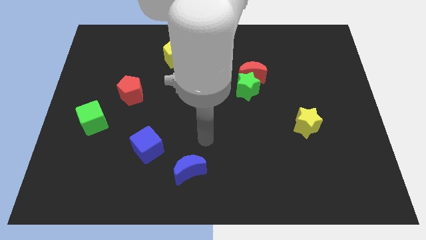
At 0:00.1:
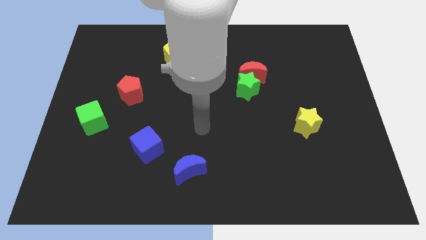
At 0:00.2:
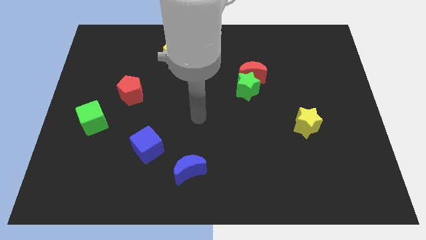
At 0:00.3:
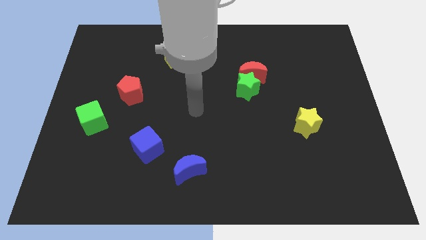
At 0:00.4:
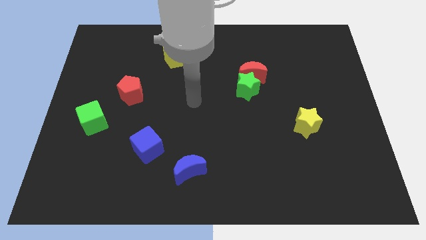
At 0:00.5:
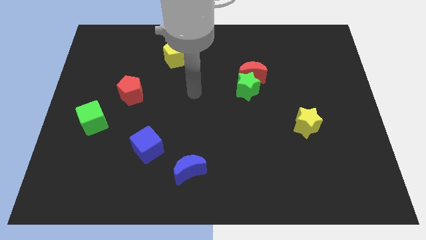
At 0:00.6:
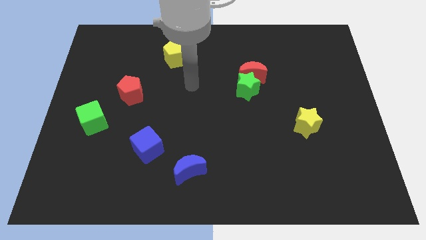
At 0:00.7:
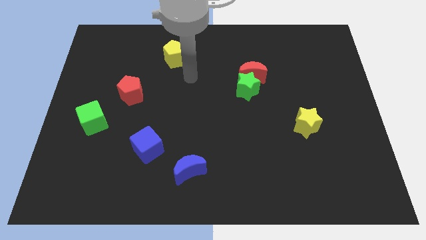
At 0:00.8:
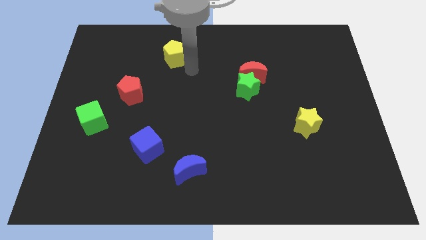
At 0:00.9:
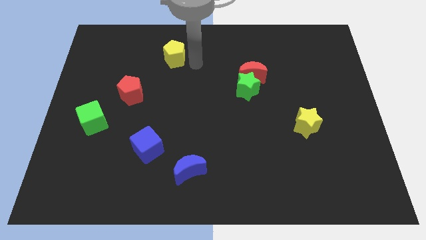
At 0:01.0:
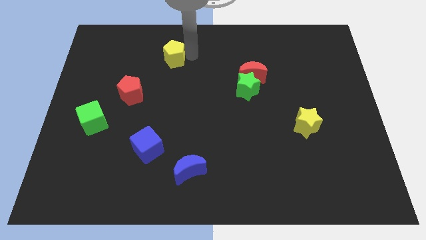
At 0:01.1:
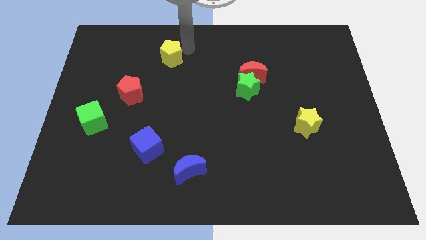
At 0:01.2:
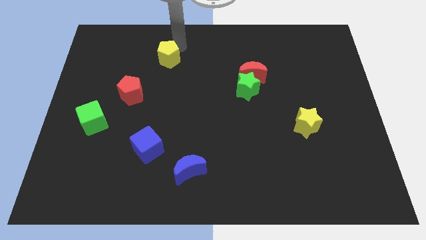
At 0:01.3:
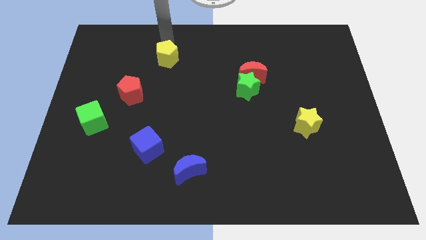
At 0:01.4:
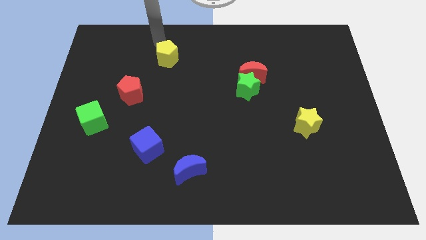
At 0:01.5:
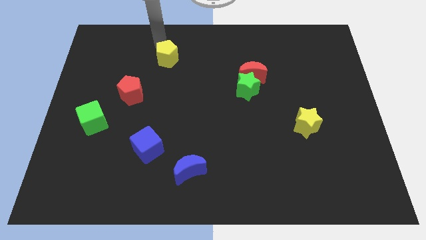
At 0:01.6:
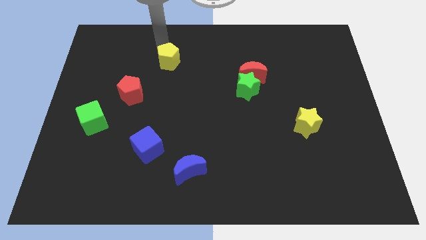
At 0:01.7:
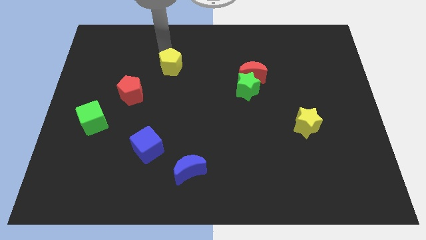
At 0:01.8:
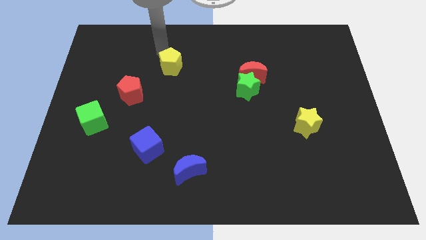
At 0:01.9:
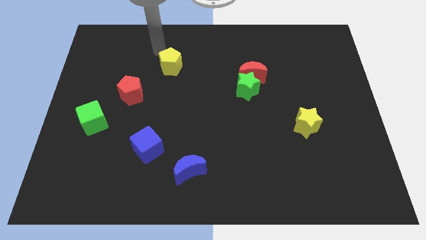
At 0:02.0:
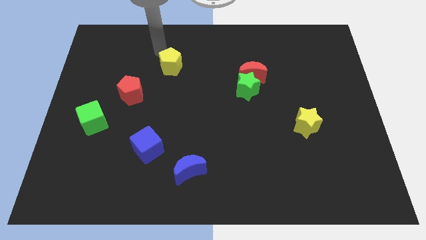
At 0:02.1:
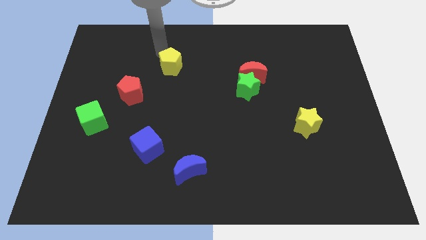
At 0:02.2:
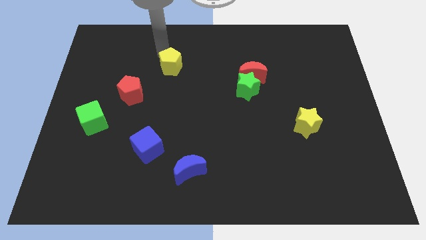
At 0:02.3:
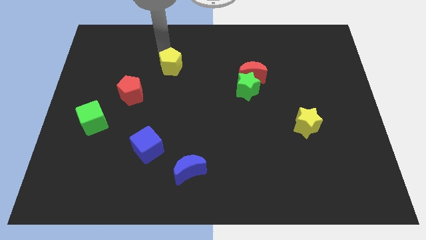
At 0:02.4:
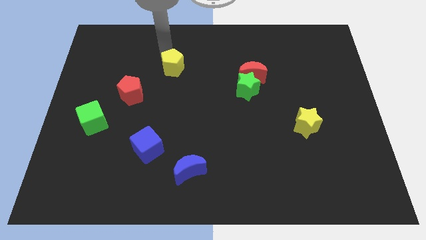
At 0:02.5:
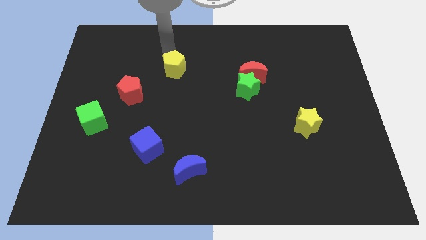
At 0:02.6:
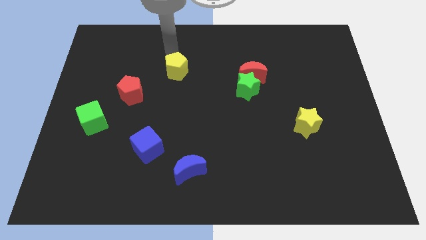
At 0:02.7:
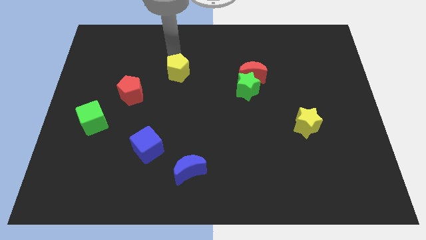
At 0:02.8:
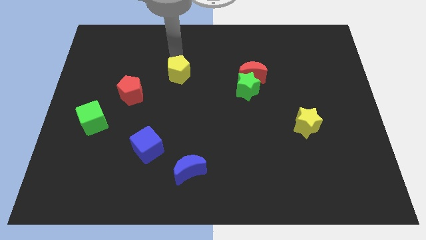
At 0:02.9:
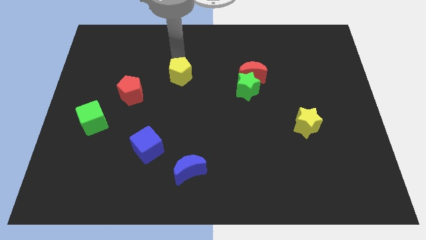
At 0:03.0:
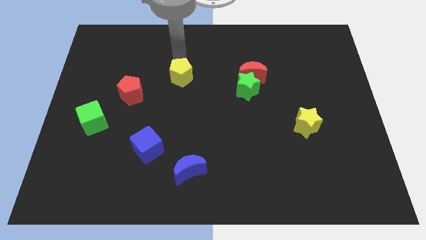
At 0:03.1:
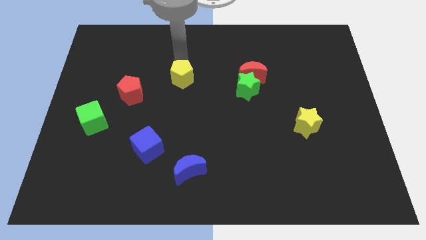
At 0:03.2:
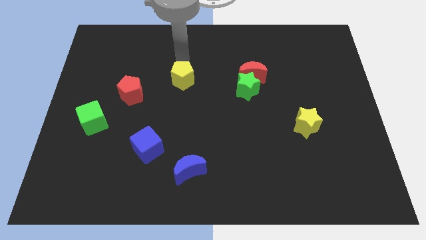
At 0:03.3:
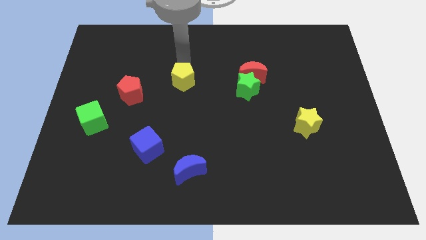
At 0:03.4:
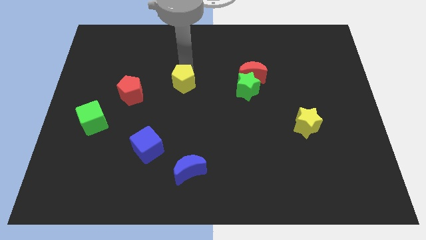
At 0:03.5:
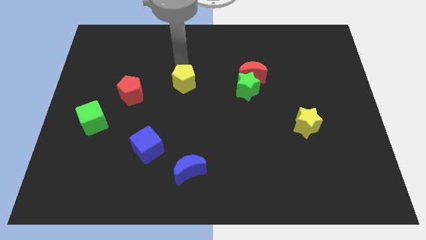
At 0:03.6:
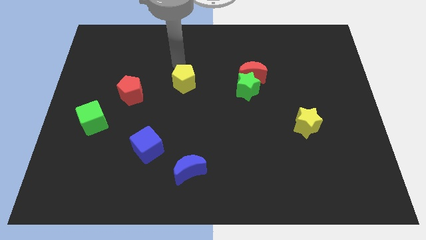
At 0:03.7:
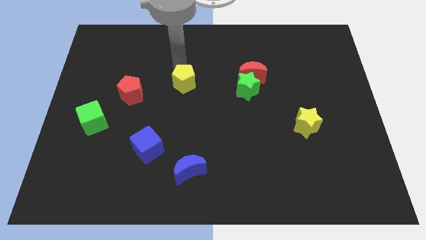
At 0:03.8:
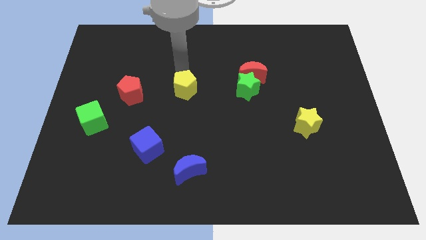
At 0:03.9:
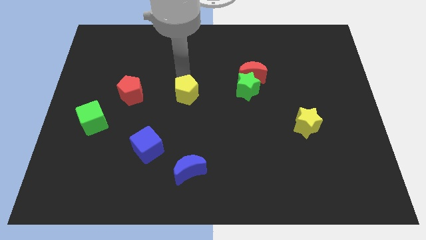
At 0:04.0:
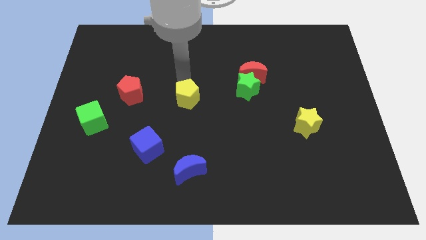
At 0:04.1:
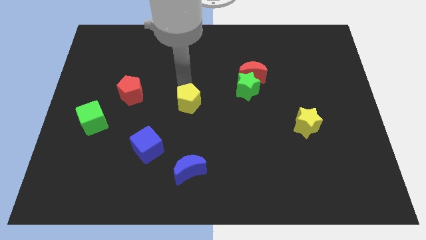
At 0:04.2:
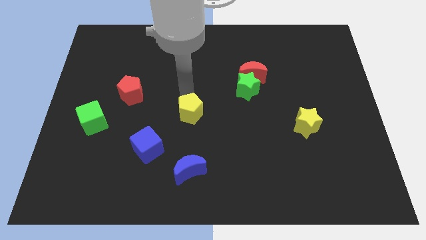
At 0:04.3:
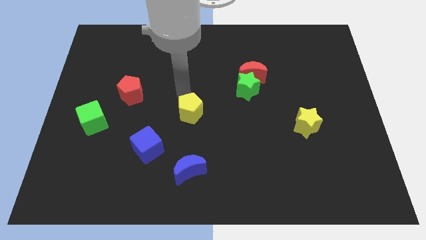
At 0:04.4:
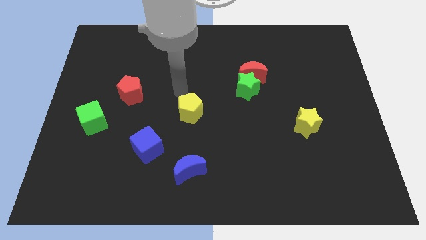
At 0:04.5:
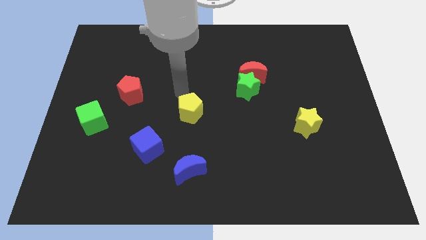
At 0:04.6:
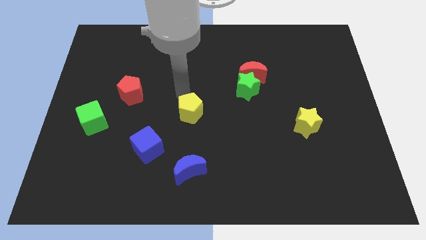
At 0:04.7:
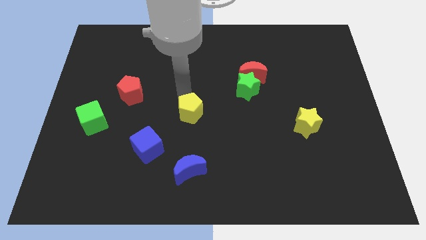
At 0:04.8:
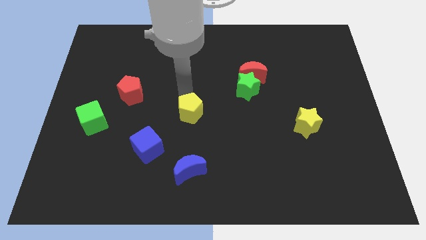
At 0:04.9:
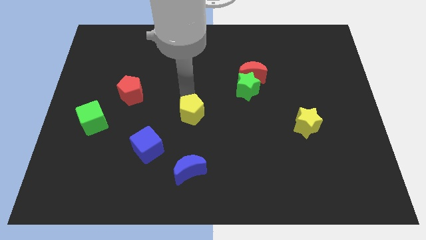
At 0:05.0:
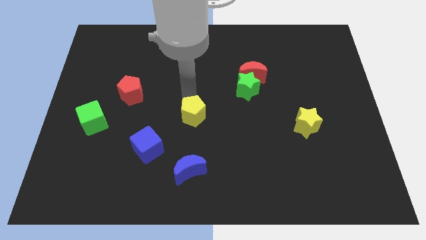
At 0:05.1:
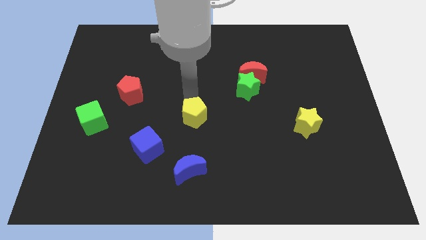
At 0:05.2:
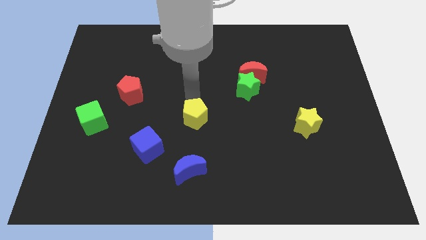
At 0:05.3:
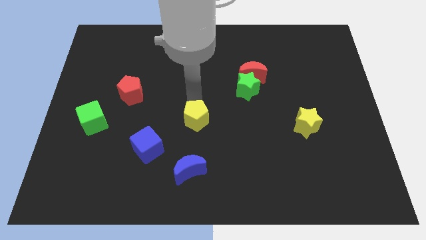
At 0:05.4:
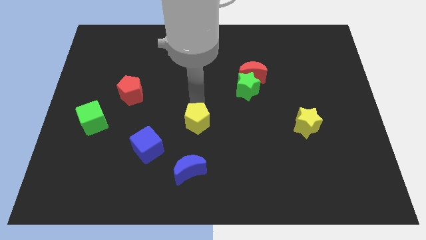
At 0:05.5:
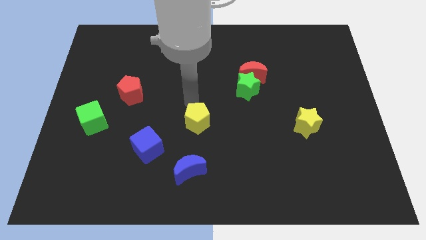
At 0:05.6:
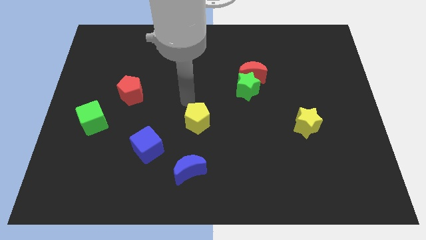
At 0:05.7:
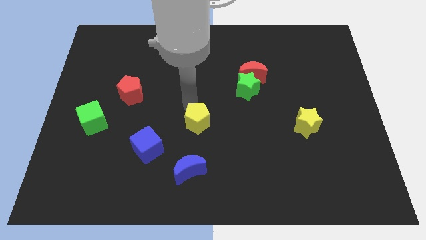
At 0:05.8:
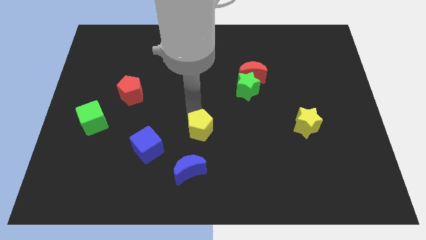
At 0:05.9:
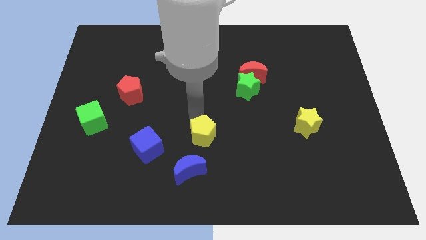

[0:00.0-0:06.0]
move the yellow pentagon diagonally up and to the right of the blue moon

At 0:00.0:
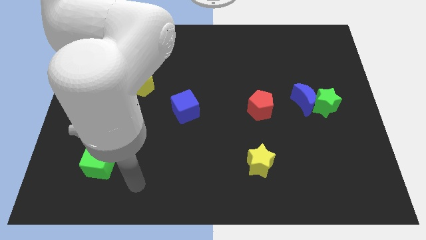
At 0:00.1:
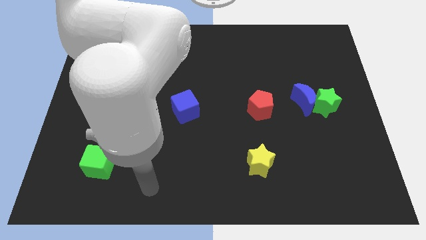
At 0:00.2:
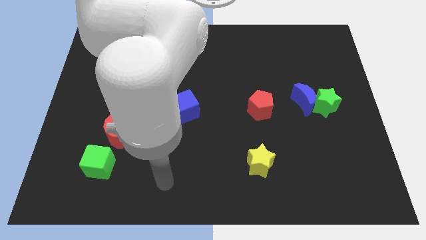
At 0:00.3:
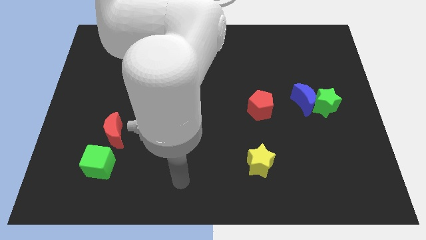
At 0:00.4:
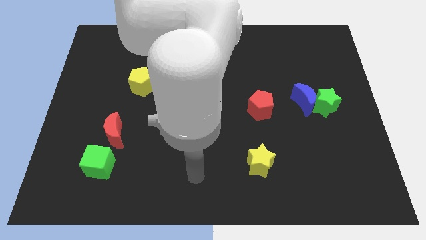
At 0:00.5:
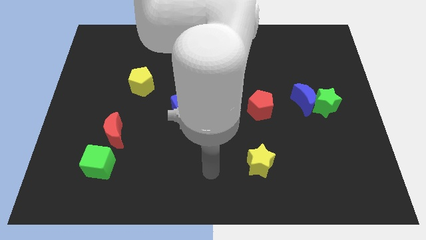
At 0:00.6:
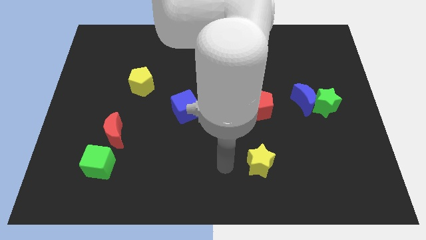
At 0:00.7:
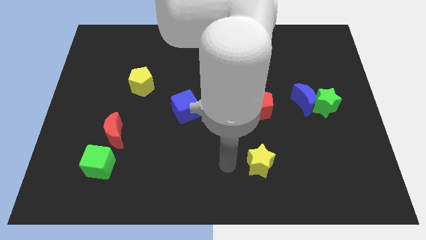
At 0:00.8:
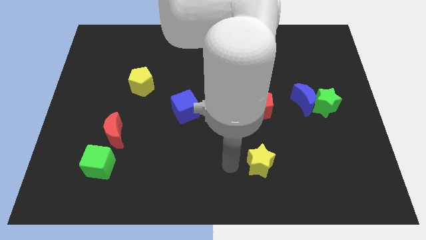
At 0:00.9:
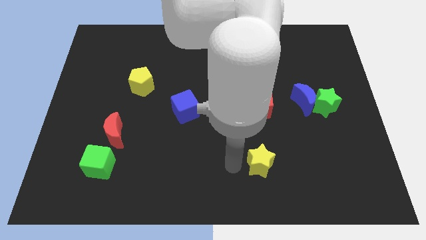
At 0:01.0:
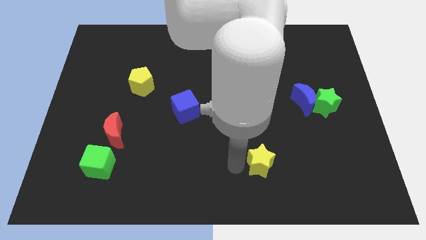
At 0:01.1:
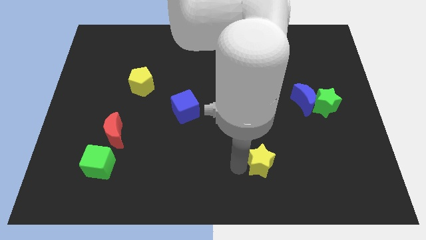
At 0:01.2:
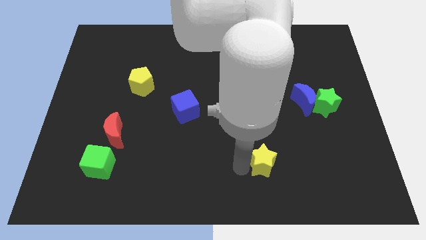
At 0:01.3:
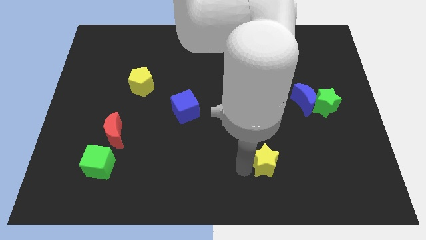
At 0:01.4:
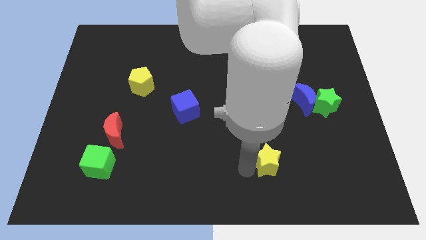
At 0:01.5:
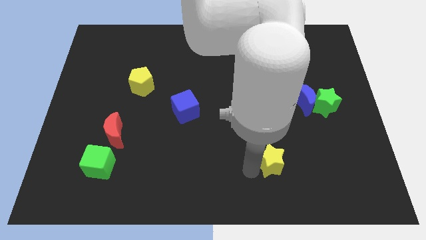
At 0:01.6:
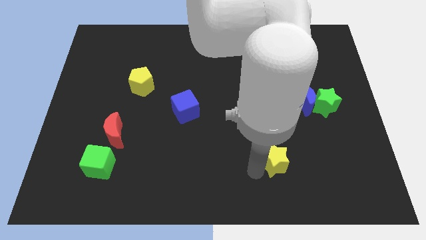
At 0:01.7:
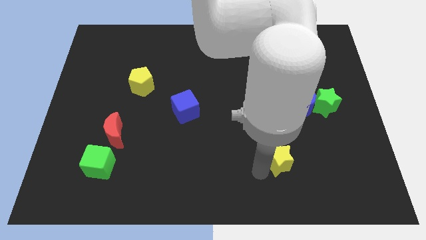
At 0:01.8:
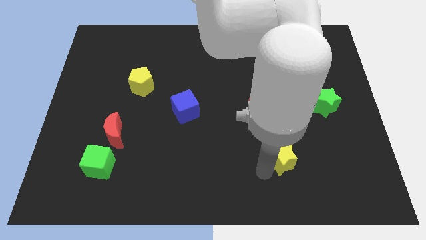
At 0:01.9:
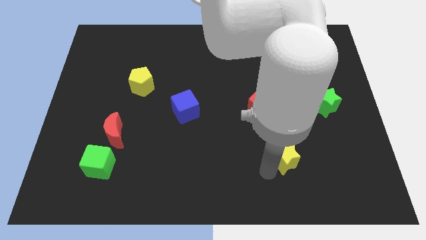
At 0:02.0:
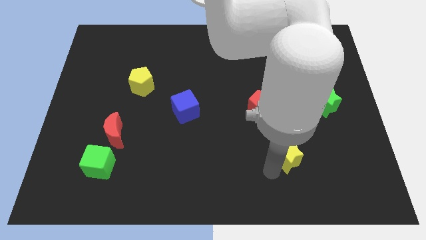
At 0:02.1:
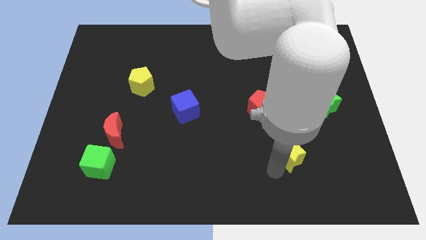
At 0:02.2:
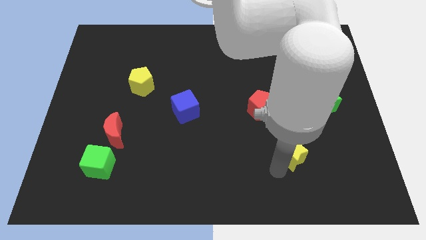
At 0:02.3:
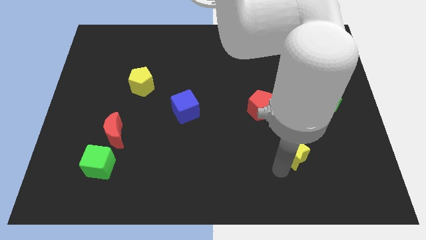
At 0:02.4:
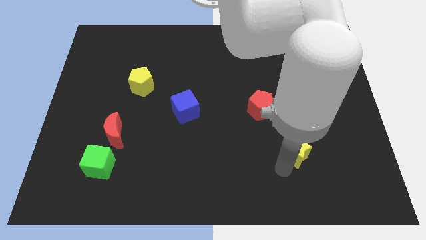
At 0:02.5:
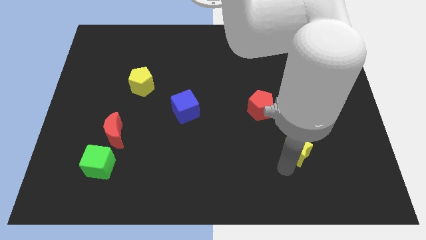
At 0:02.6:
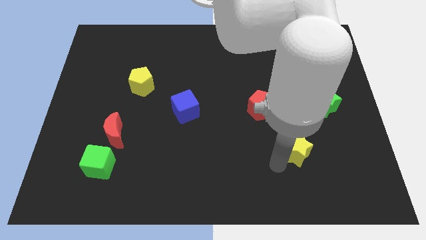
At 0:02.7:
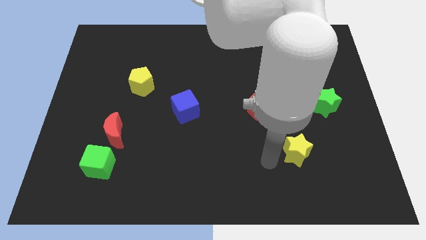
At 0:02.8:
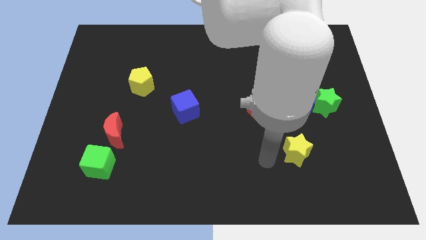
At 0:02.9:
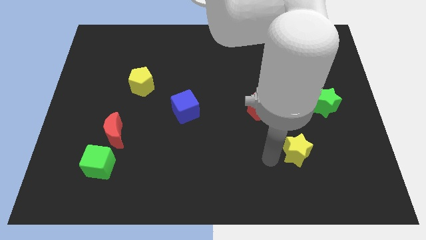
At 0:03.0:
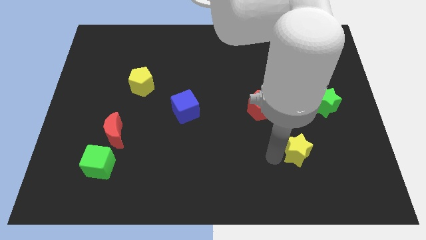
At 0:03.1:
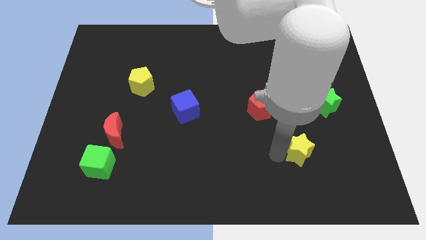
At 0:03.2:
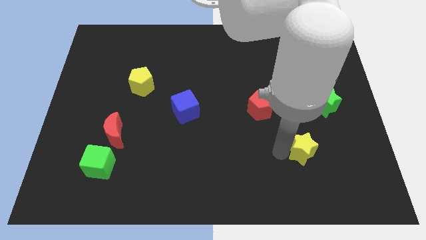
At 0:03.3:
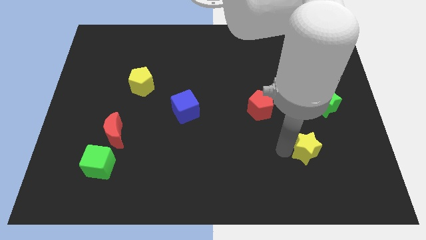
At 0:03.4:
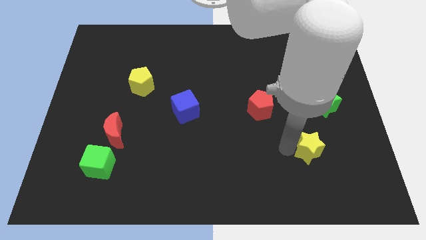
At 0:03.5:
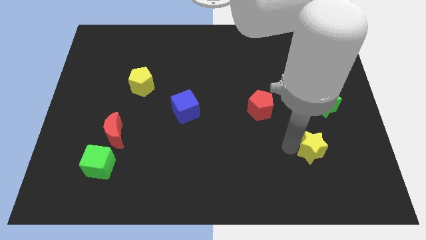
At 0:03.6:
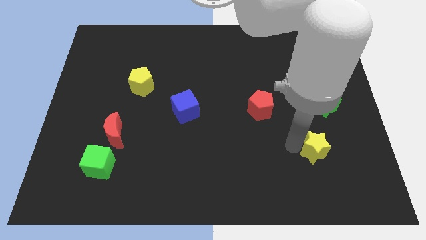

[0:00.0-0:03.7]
push the yellow star to the bottom side of the green star
